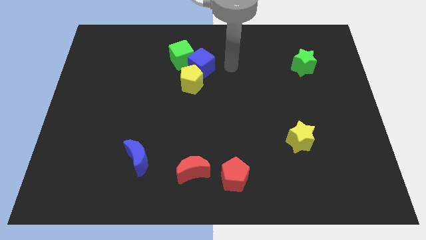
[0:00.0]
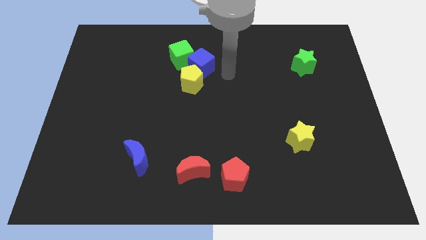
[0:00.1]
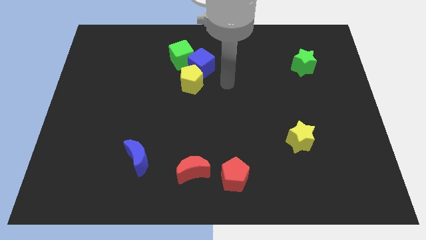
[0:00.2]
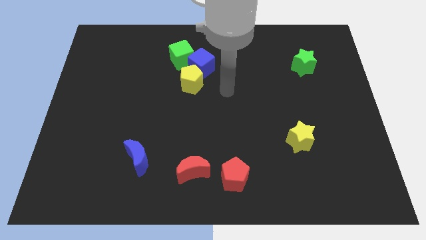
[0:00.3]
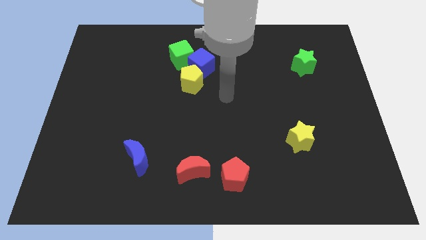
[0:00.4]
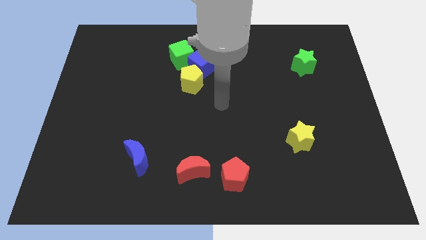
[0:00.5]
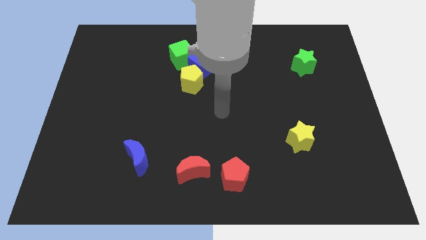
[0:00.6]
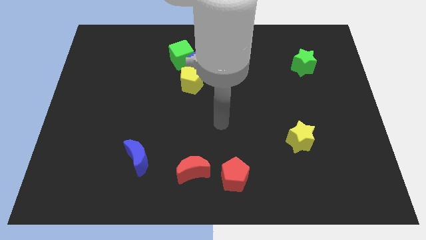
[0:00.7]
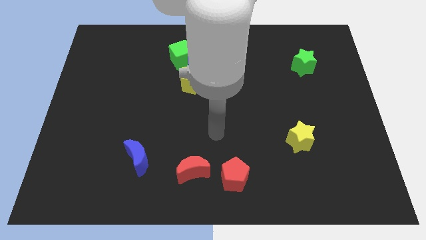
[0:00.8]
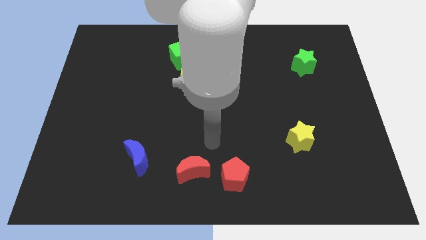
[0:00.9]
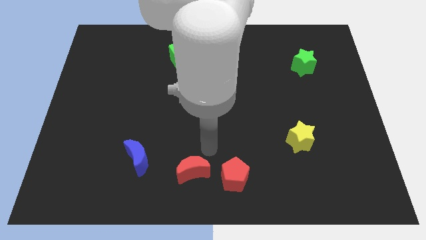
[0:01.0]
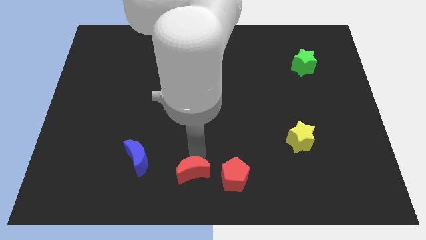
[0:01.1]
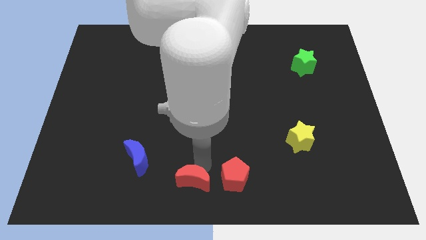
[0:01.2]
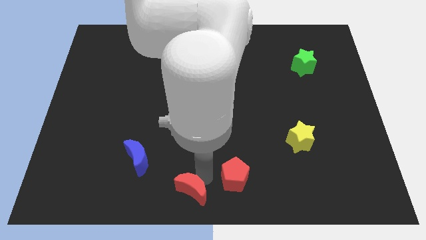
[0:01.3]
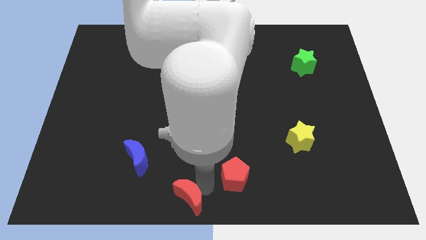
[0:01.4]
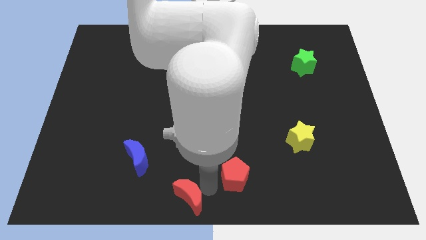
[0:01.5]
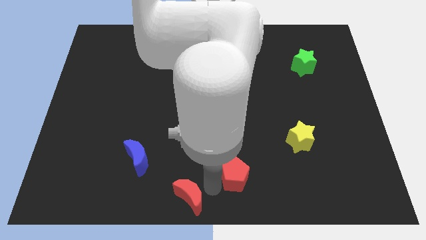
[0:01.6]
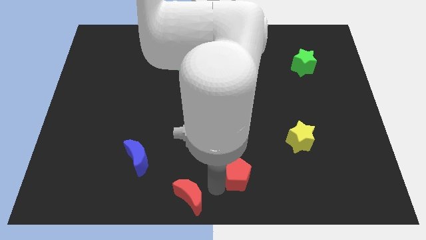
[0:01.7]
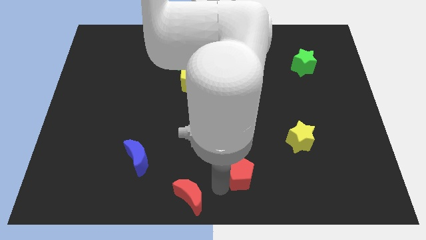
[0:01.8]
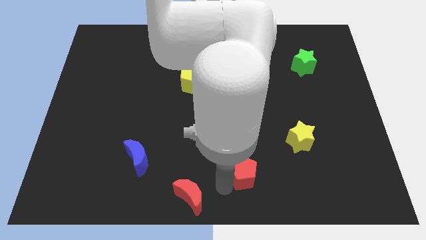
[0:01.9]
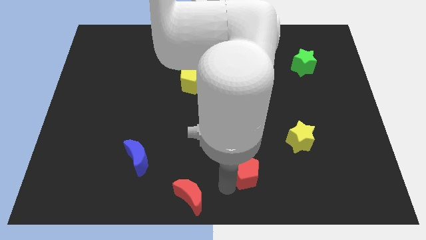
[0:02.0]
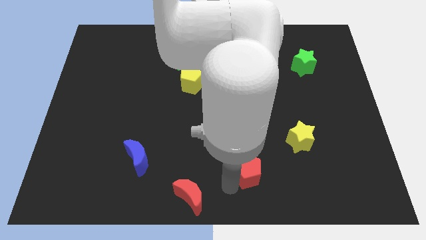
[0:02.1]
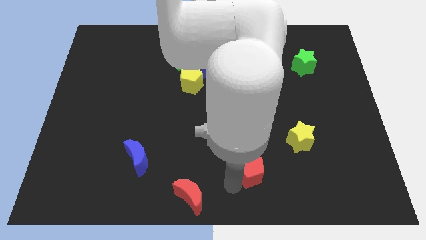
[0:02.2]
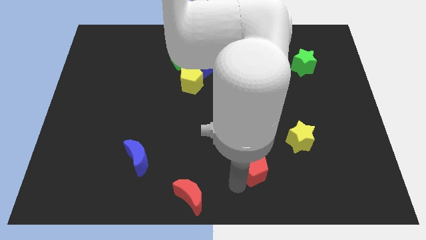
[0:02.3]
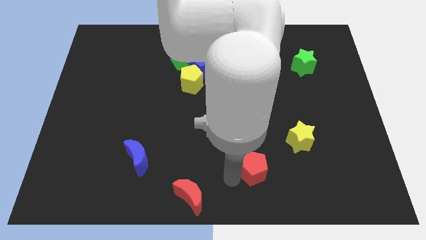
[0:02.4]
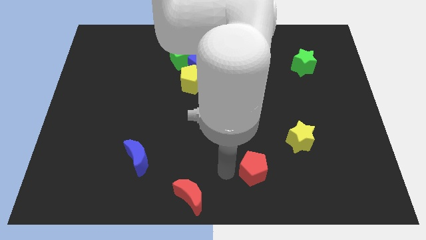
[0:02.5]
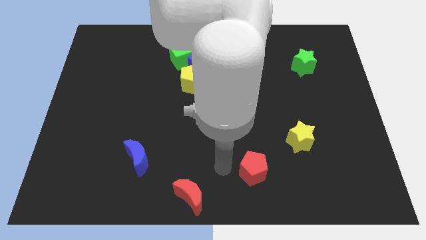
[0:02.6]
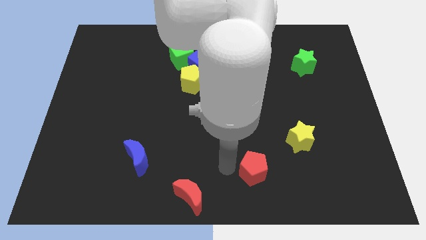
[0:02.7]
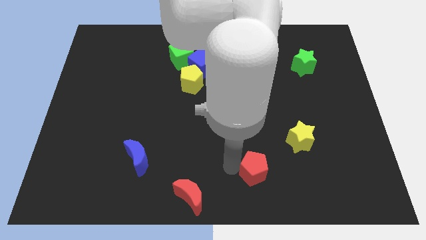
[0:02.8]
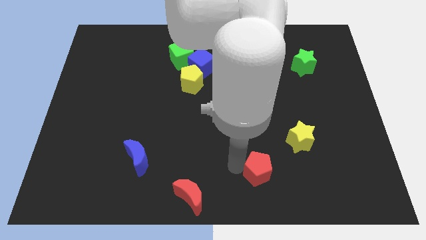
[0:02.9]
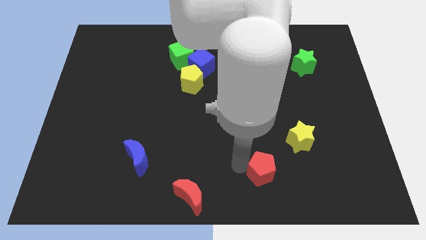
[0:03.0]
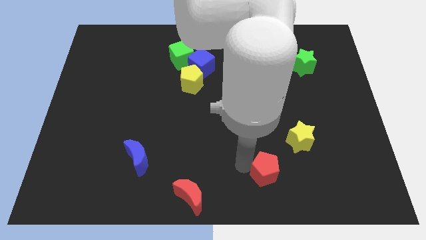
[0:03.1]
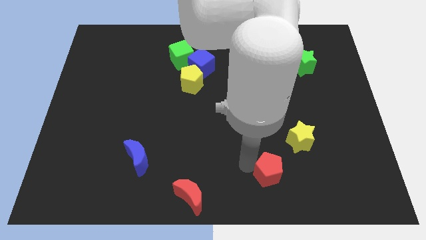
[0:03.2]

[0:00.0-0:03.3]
slightly push the red pentagon right

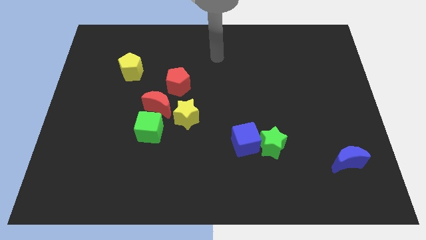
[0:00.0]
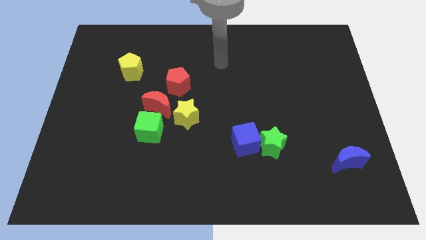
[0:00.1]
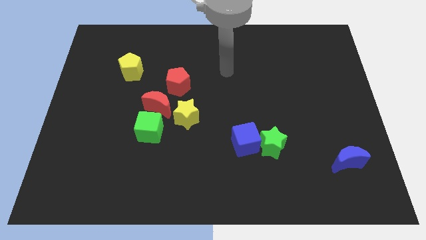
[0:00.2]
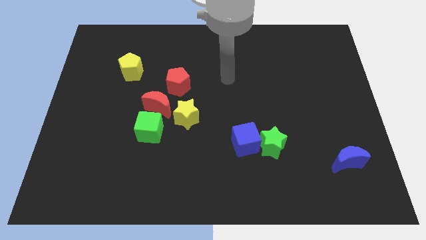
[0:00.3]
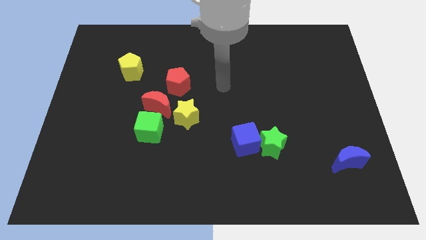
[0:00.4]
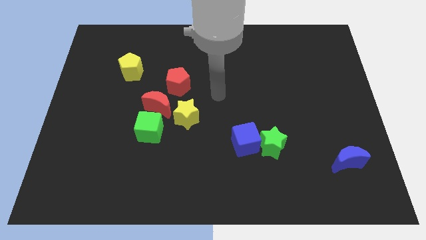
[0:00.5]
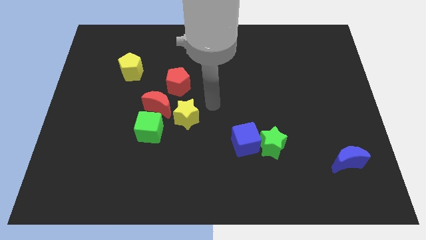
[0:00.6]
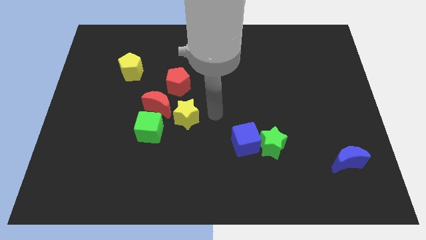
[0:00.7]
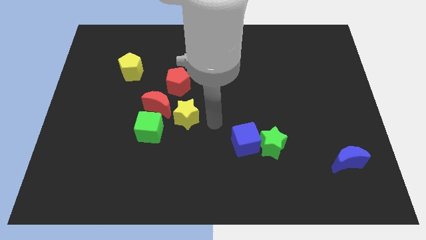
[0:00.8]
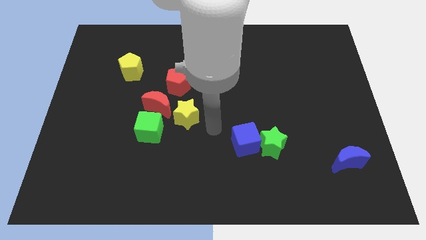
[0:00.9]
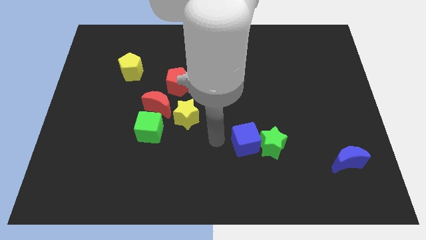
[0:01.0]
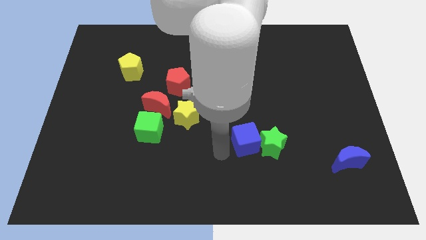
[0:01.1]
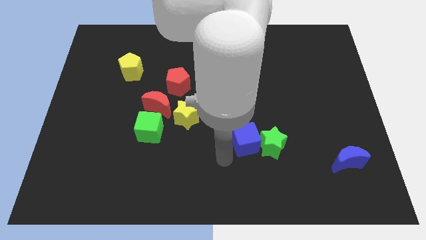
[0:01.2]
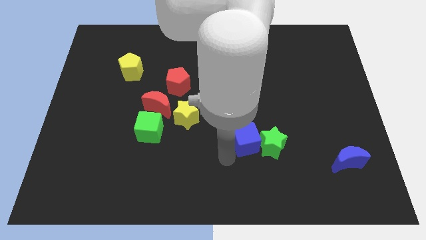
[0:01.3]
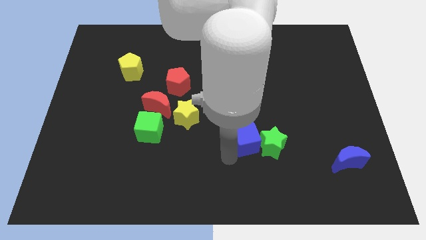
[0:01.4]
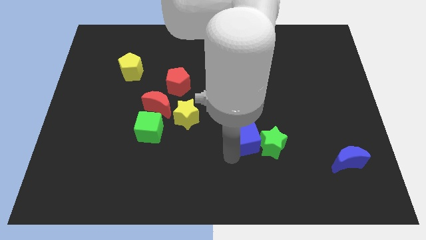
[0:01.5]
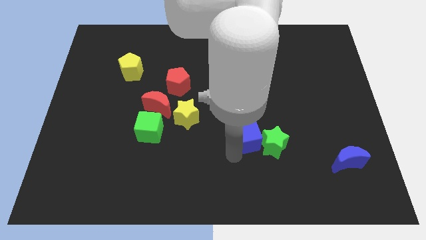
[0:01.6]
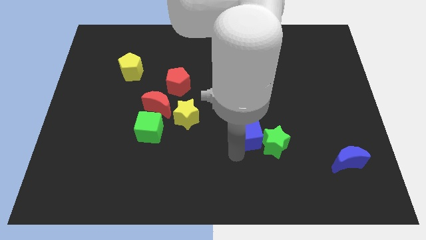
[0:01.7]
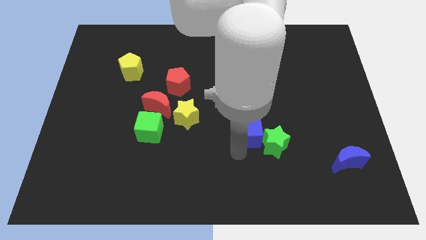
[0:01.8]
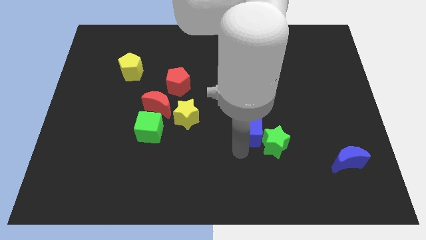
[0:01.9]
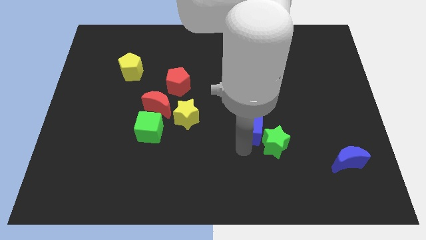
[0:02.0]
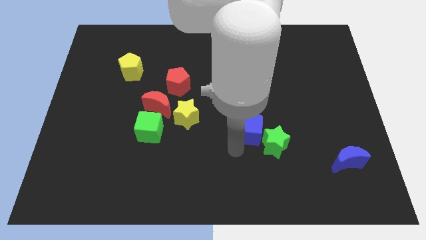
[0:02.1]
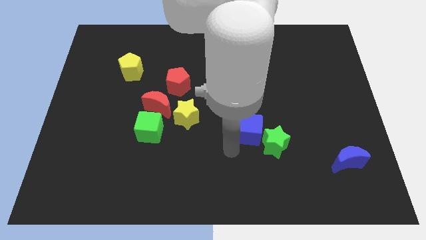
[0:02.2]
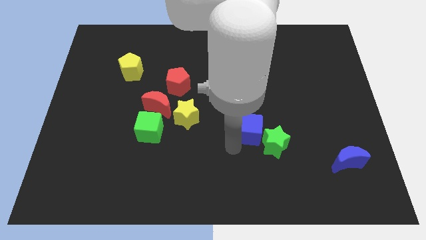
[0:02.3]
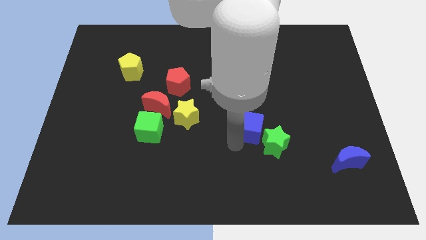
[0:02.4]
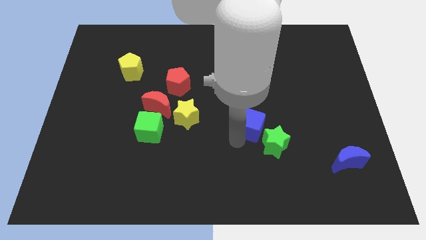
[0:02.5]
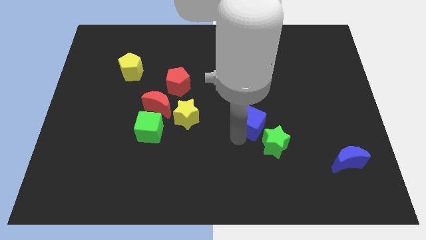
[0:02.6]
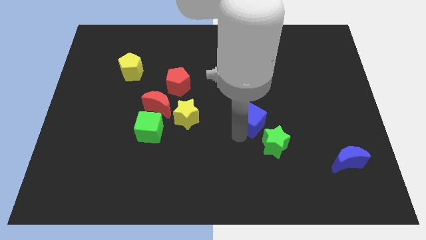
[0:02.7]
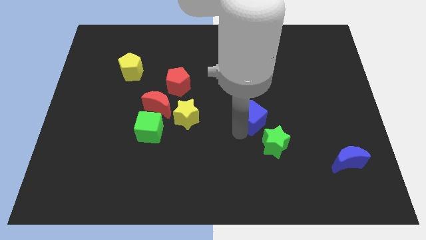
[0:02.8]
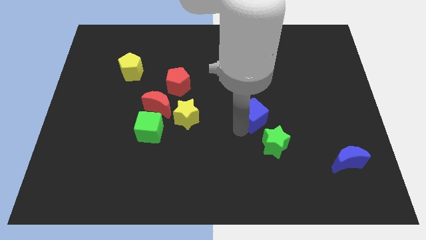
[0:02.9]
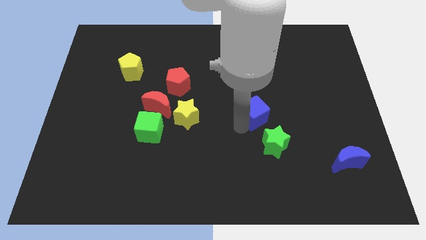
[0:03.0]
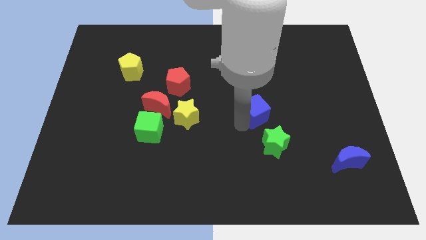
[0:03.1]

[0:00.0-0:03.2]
move the blue cube up and right somewhat

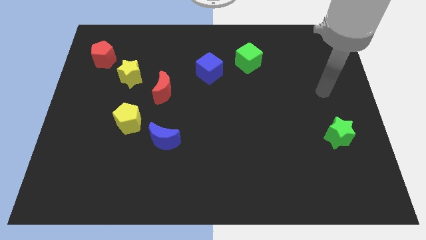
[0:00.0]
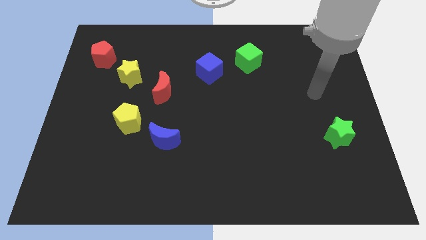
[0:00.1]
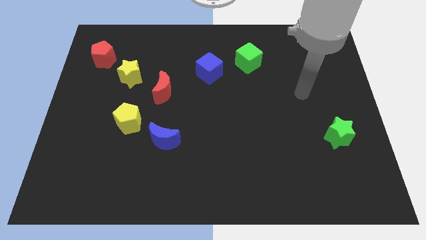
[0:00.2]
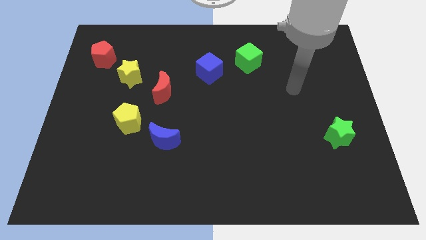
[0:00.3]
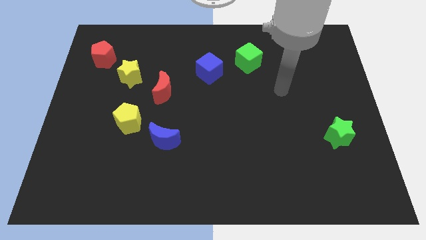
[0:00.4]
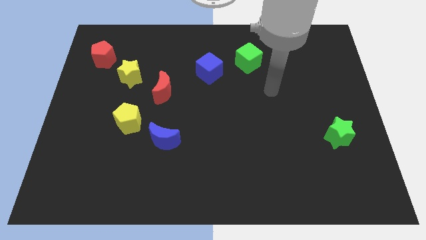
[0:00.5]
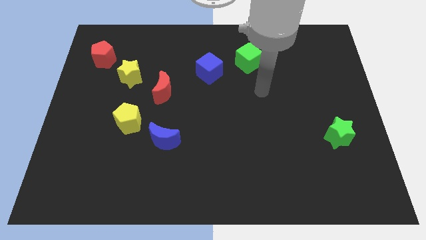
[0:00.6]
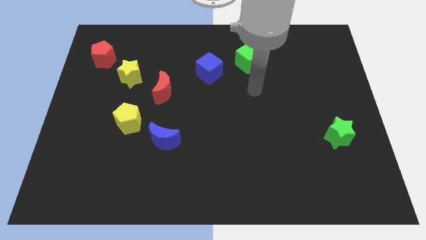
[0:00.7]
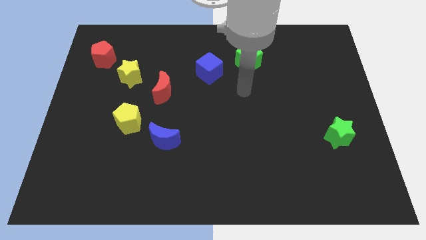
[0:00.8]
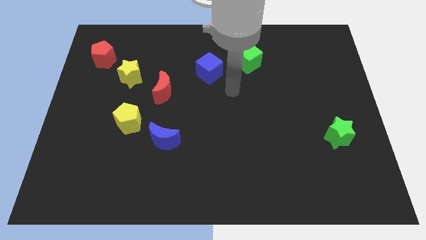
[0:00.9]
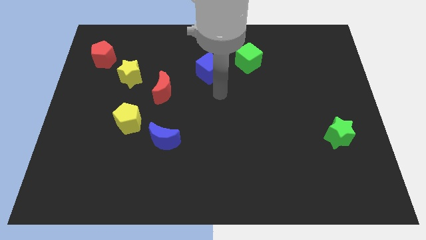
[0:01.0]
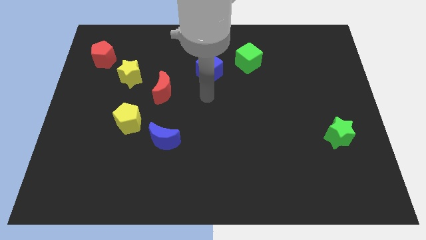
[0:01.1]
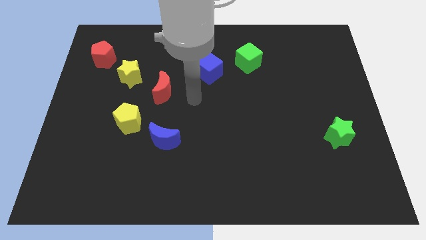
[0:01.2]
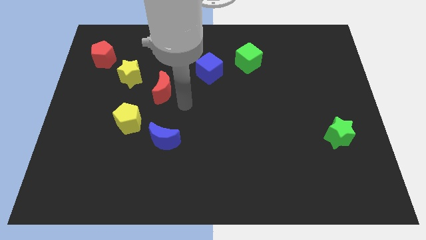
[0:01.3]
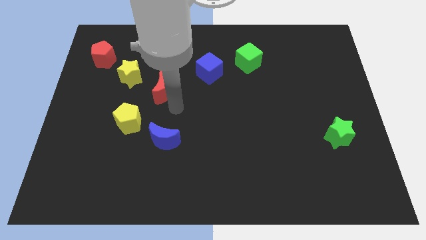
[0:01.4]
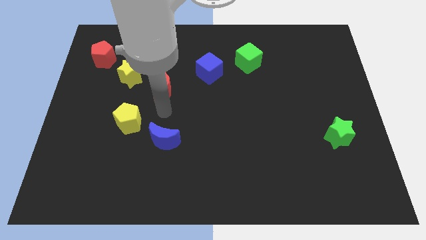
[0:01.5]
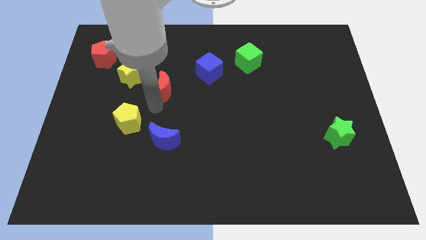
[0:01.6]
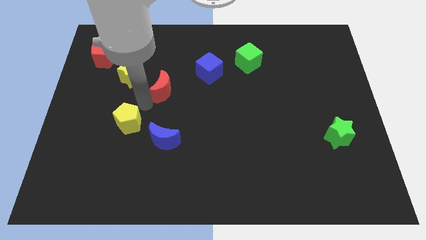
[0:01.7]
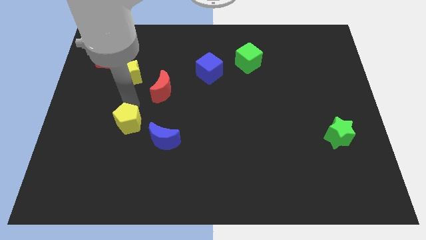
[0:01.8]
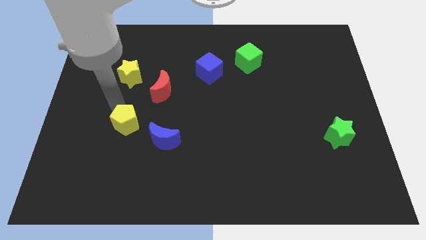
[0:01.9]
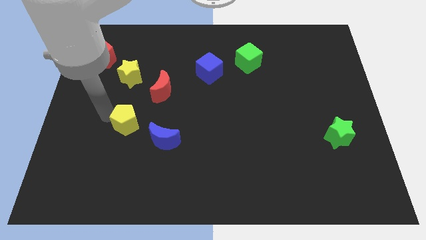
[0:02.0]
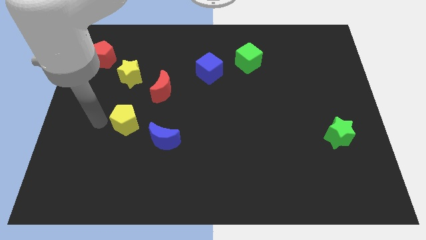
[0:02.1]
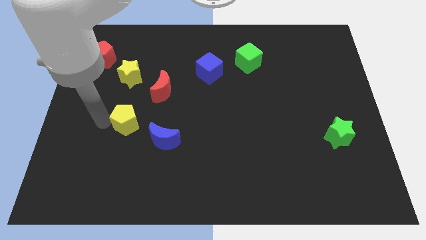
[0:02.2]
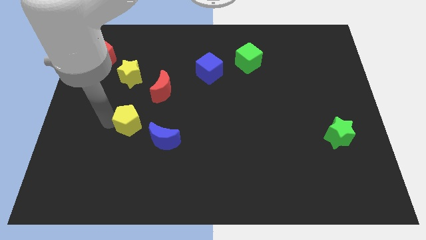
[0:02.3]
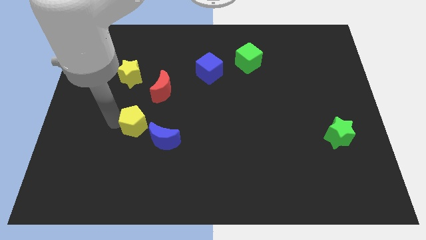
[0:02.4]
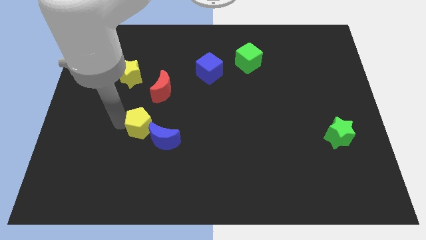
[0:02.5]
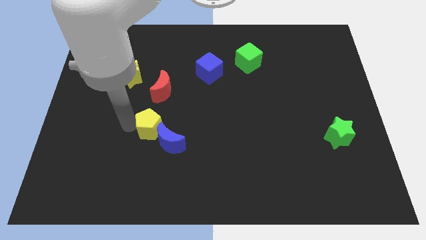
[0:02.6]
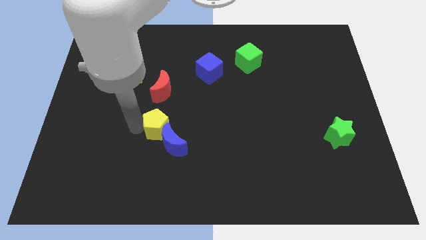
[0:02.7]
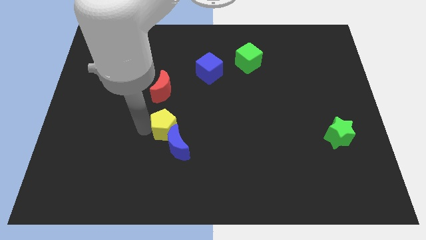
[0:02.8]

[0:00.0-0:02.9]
push the yellow pentagon a little bit right
